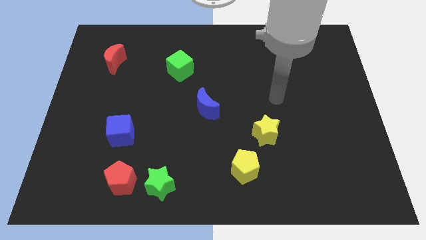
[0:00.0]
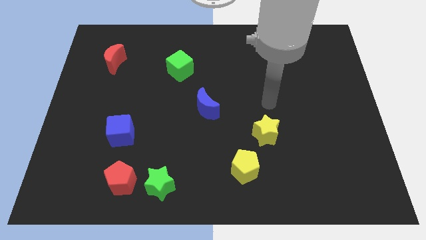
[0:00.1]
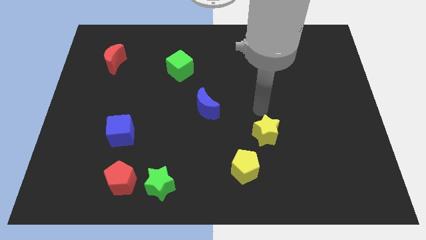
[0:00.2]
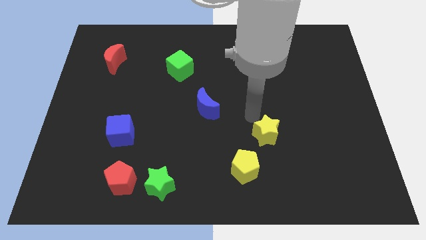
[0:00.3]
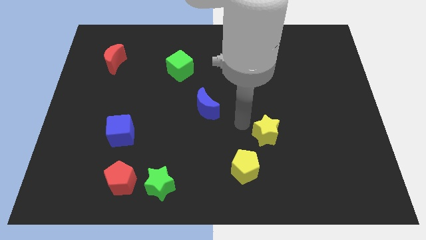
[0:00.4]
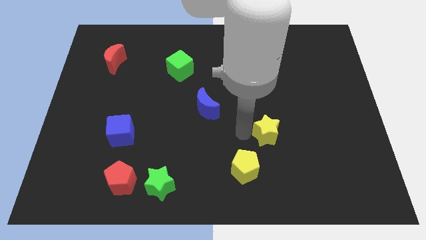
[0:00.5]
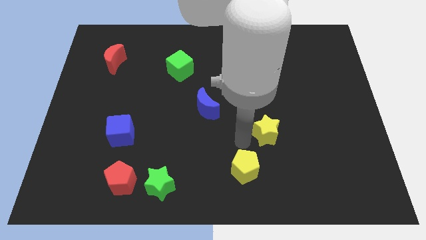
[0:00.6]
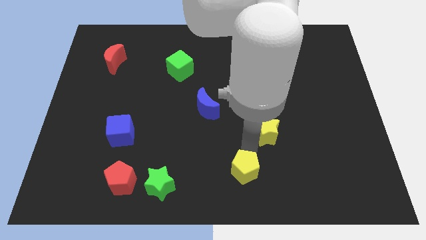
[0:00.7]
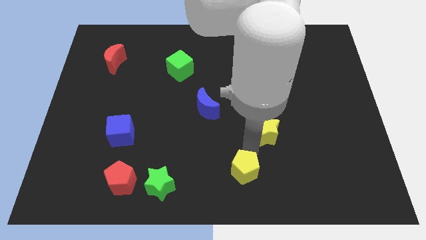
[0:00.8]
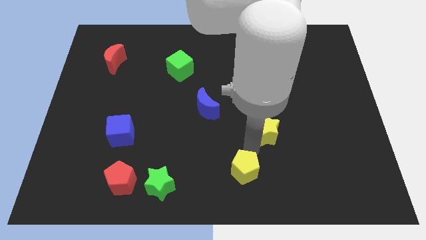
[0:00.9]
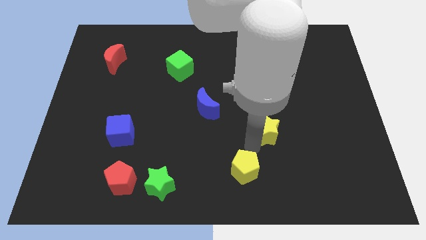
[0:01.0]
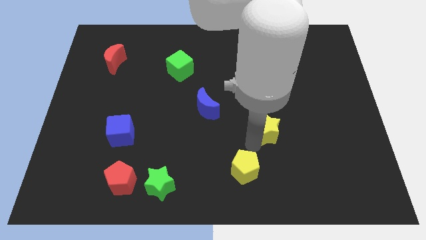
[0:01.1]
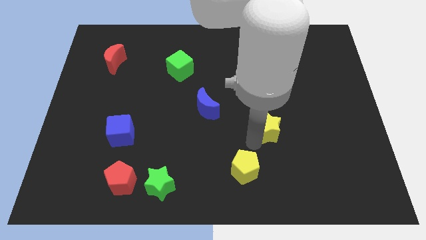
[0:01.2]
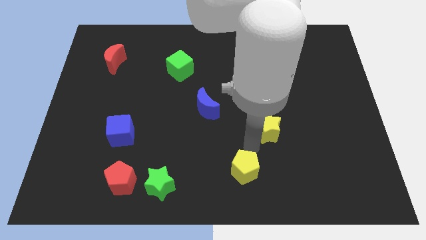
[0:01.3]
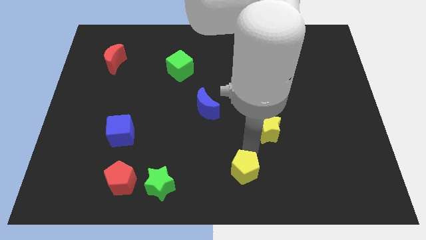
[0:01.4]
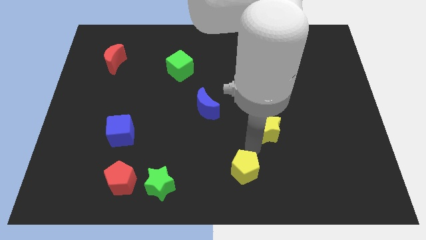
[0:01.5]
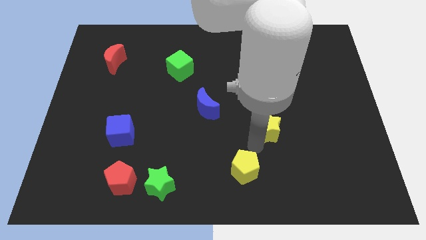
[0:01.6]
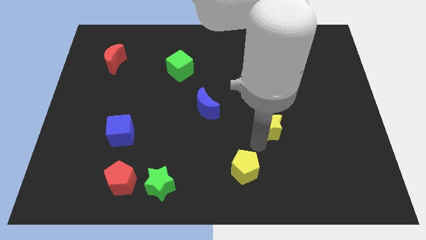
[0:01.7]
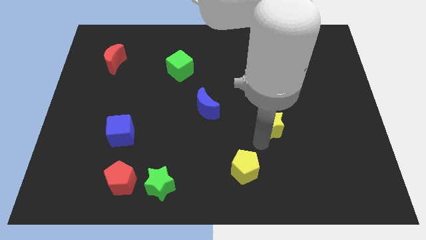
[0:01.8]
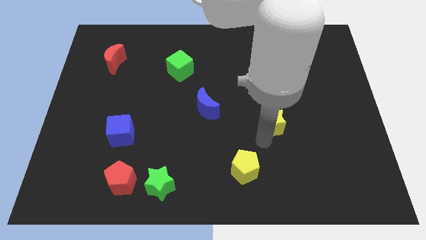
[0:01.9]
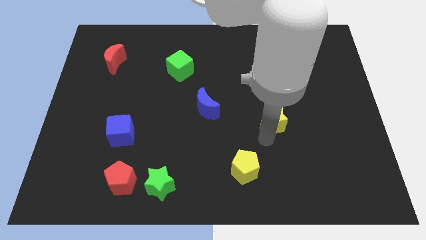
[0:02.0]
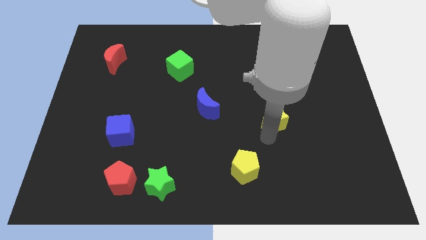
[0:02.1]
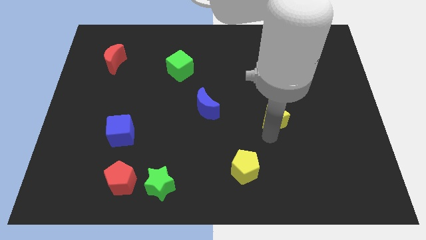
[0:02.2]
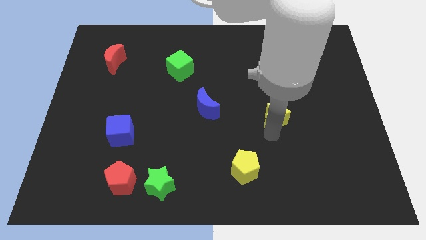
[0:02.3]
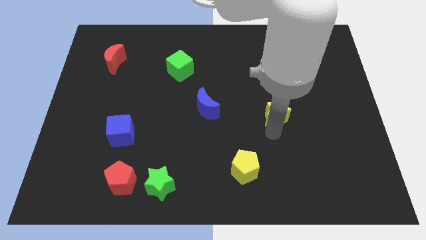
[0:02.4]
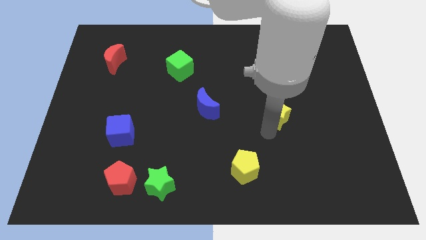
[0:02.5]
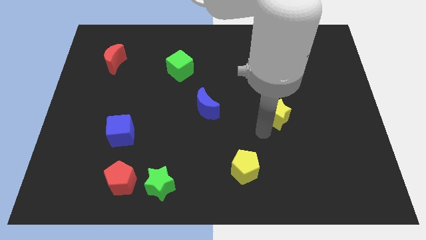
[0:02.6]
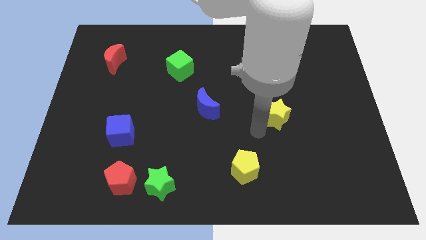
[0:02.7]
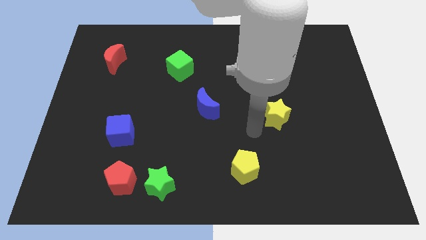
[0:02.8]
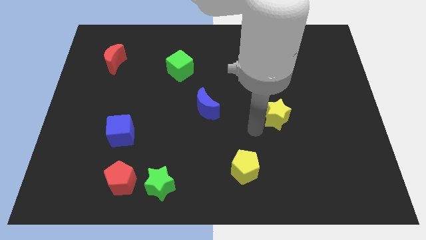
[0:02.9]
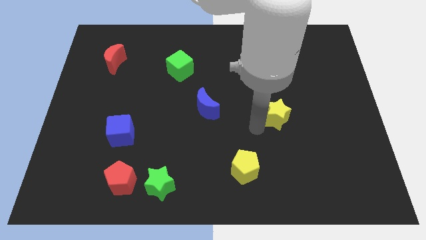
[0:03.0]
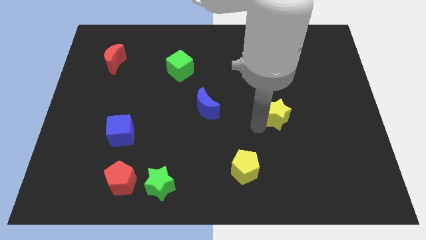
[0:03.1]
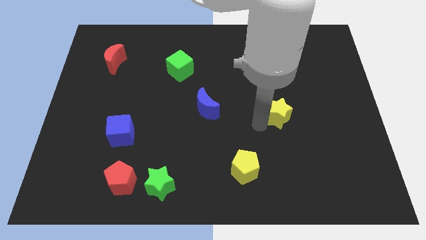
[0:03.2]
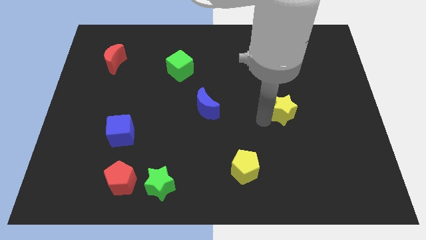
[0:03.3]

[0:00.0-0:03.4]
slightly move the yellow star up and then to the right

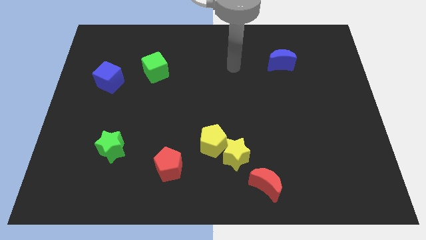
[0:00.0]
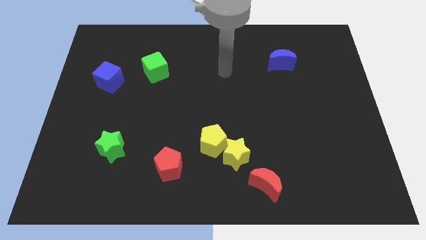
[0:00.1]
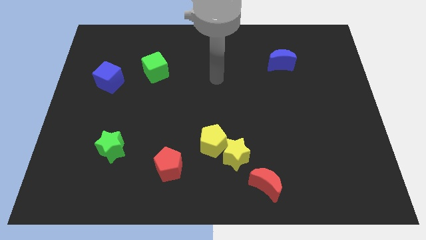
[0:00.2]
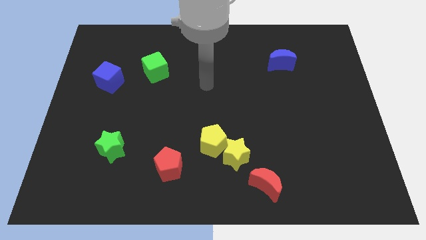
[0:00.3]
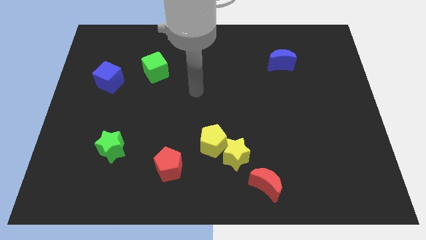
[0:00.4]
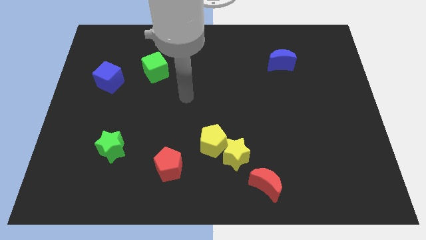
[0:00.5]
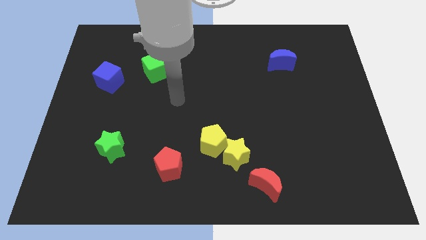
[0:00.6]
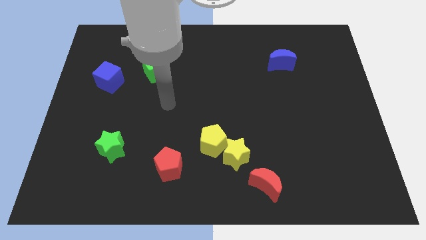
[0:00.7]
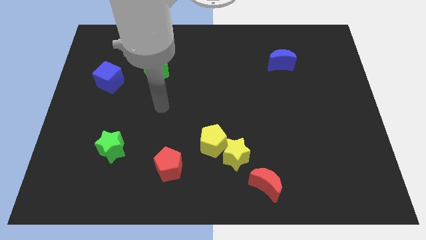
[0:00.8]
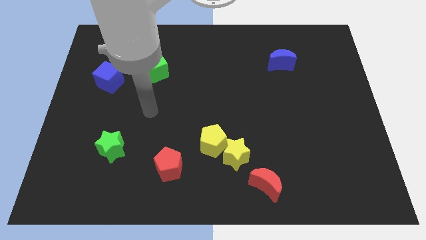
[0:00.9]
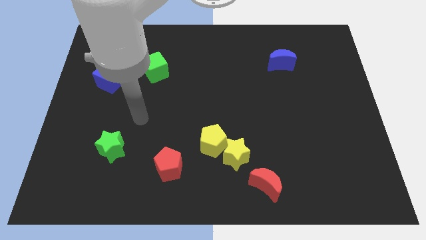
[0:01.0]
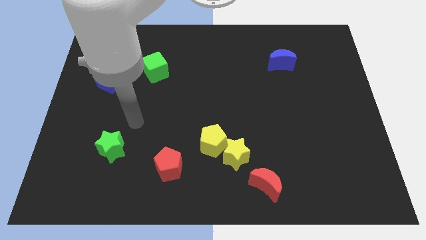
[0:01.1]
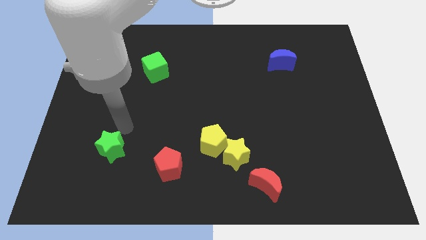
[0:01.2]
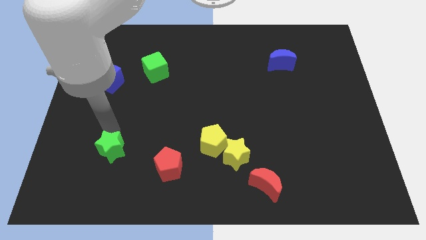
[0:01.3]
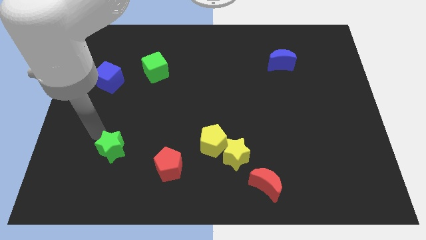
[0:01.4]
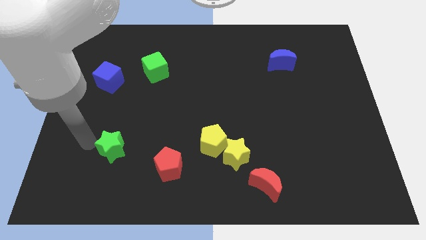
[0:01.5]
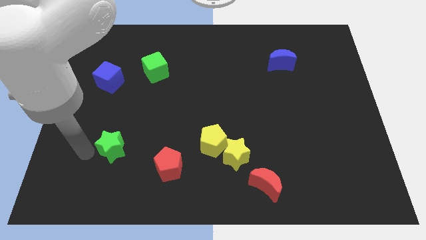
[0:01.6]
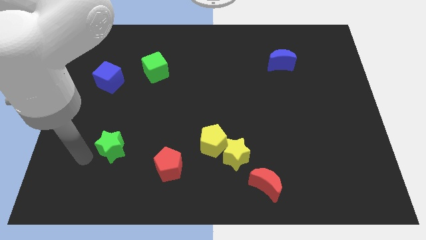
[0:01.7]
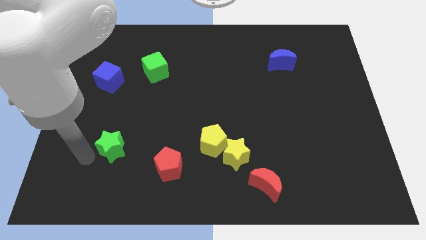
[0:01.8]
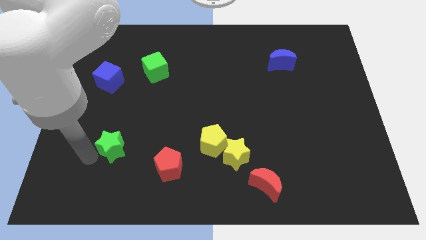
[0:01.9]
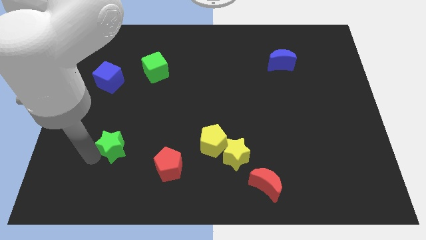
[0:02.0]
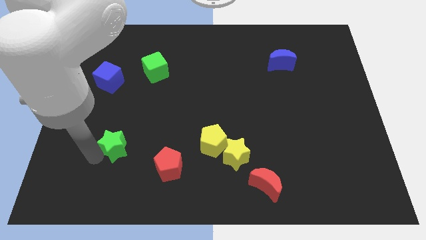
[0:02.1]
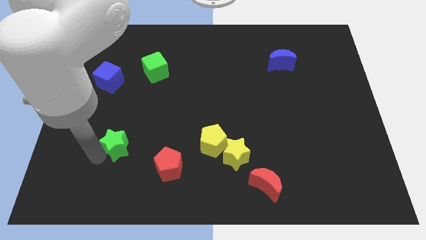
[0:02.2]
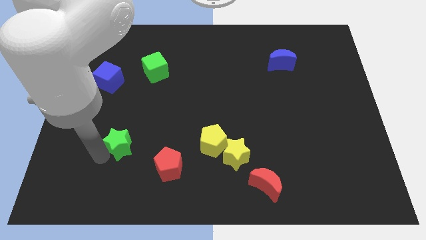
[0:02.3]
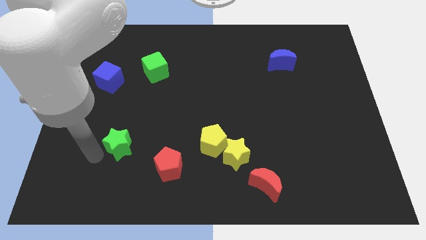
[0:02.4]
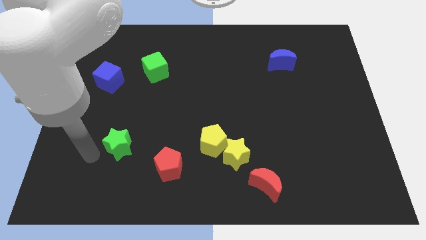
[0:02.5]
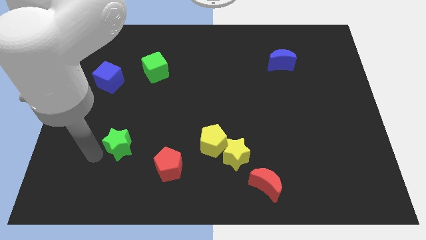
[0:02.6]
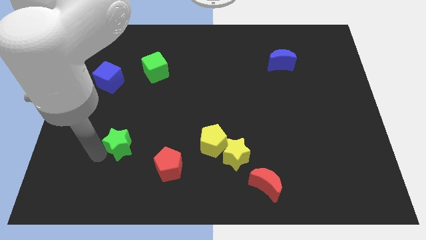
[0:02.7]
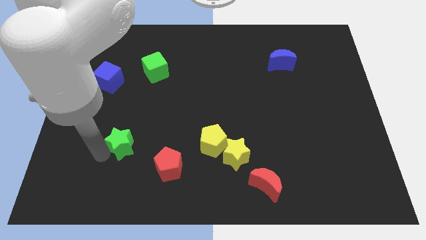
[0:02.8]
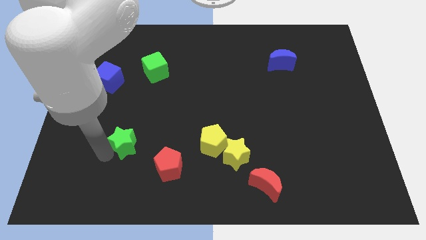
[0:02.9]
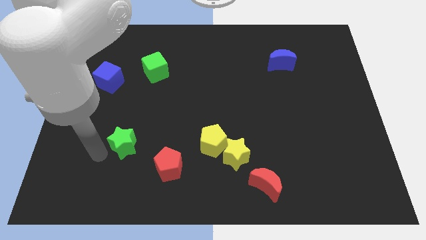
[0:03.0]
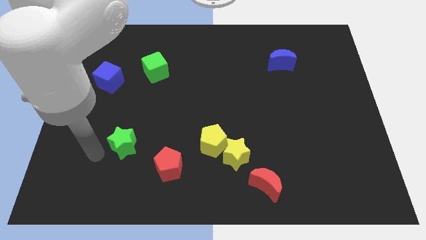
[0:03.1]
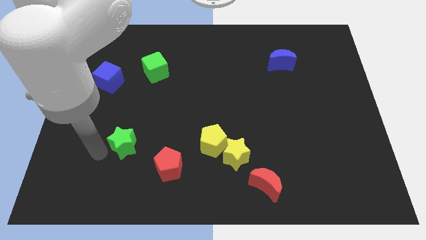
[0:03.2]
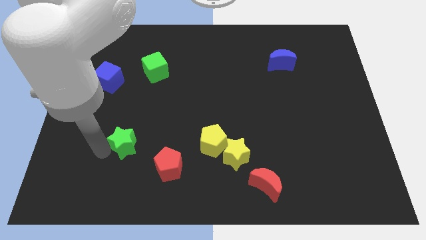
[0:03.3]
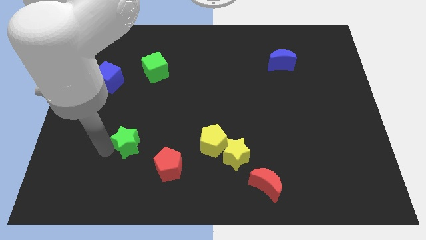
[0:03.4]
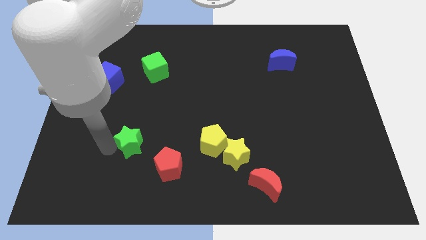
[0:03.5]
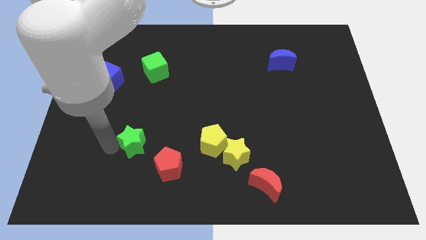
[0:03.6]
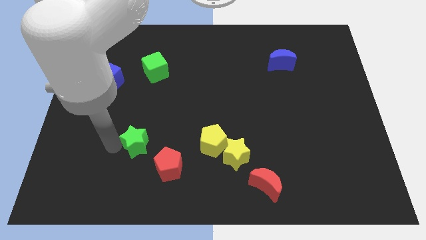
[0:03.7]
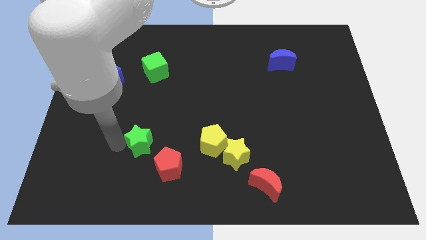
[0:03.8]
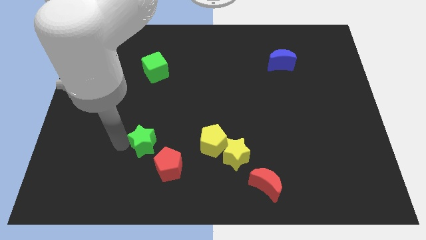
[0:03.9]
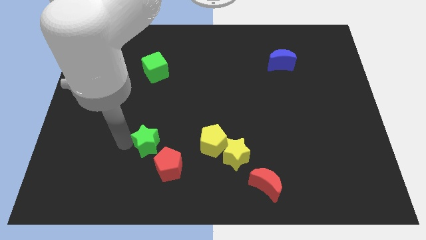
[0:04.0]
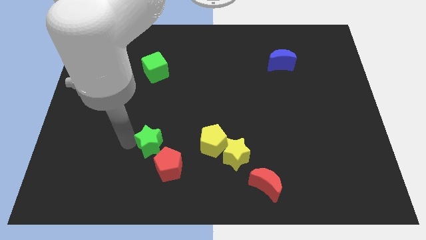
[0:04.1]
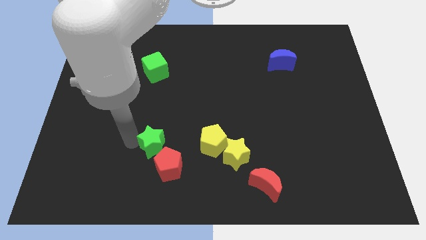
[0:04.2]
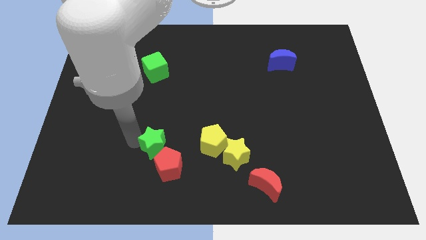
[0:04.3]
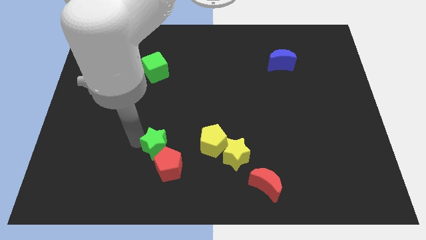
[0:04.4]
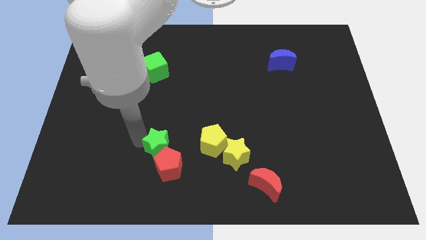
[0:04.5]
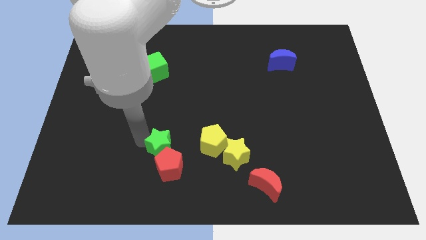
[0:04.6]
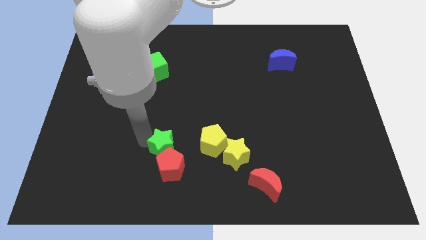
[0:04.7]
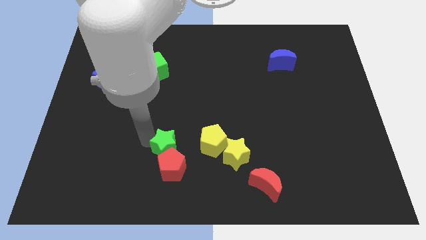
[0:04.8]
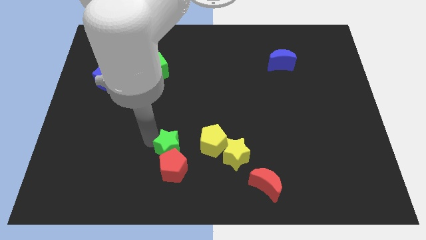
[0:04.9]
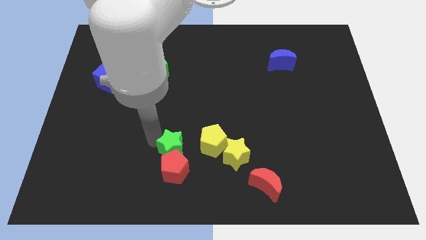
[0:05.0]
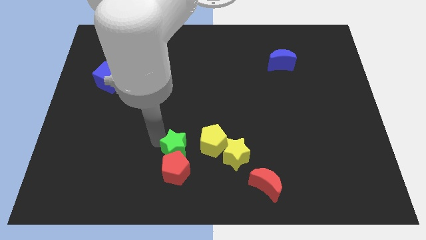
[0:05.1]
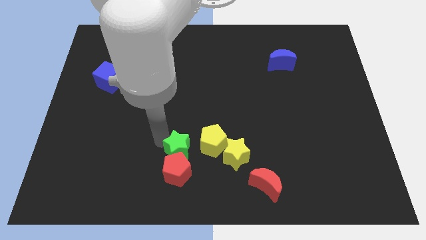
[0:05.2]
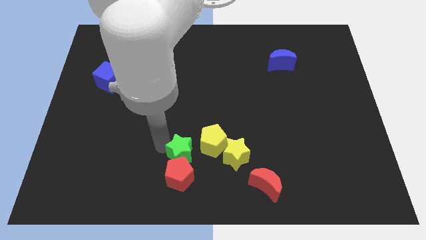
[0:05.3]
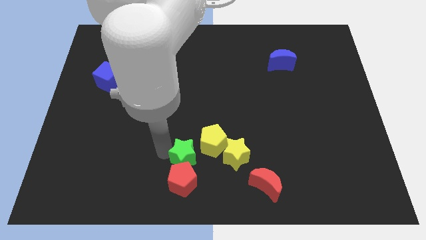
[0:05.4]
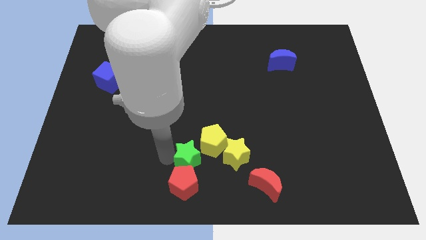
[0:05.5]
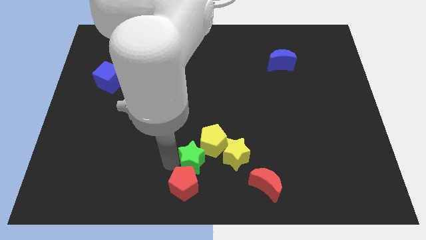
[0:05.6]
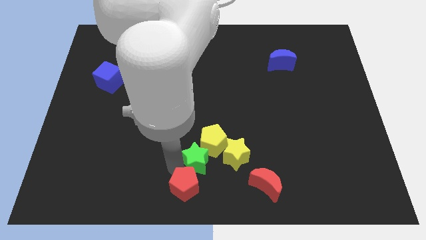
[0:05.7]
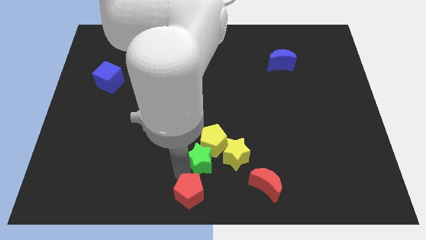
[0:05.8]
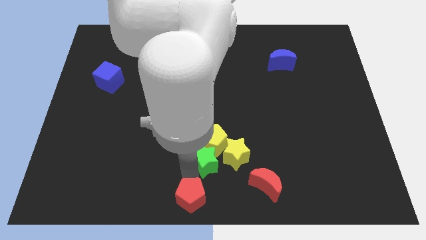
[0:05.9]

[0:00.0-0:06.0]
push the green star right
